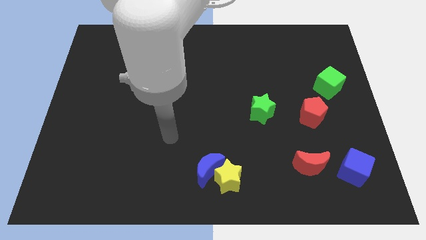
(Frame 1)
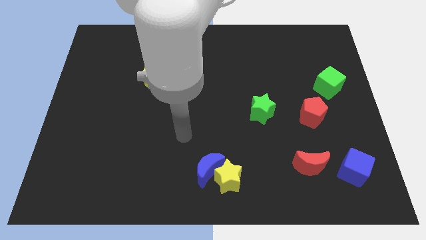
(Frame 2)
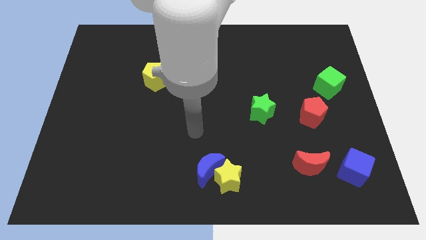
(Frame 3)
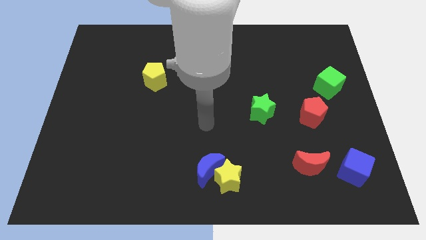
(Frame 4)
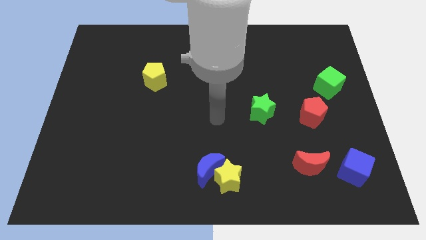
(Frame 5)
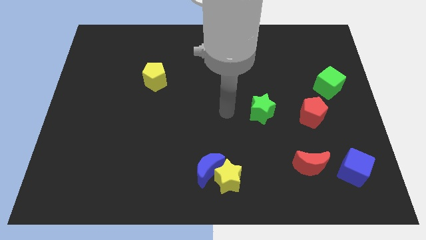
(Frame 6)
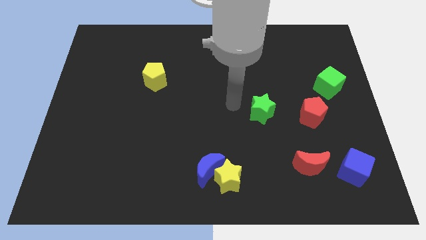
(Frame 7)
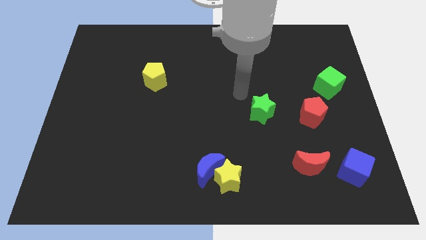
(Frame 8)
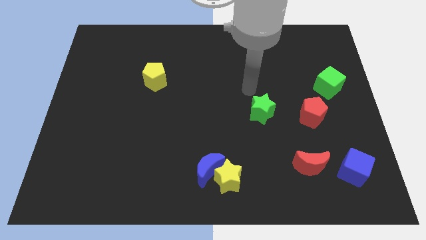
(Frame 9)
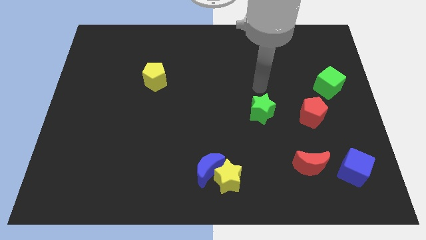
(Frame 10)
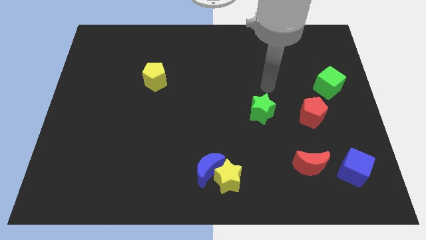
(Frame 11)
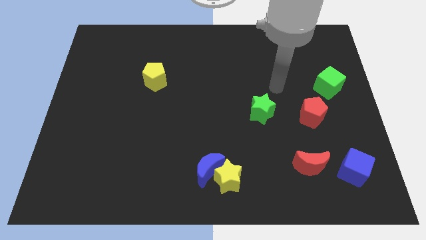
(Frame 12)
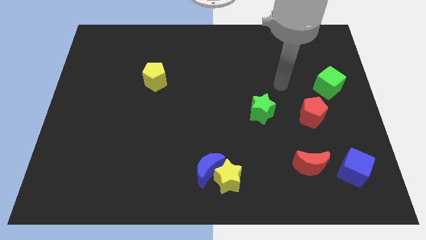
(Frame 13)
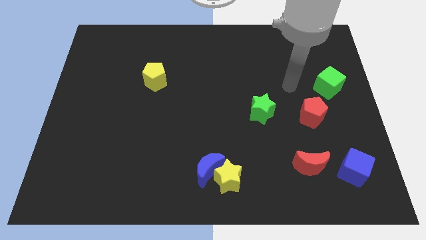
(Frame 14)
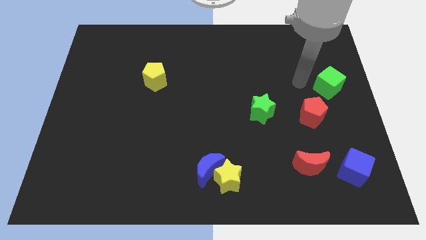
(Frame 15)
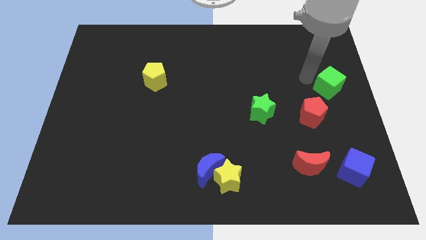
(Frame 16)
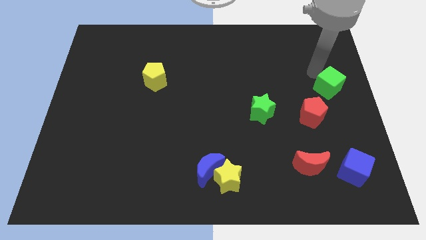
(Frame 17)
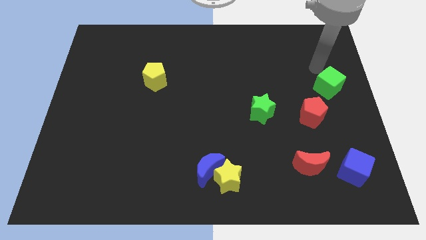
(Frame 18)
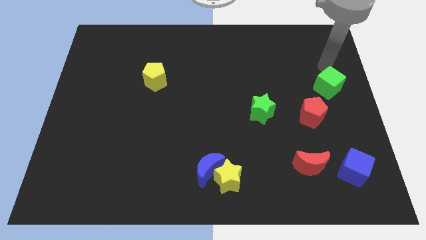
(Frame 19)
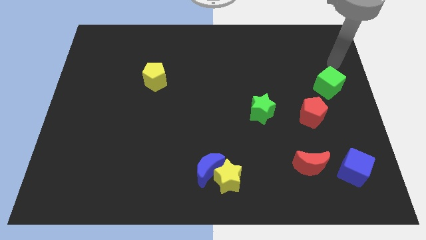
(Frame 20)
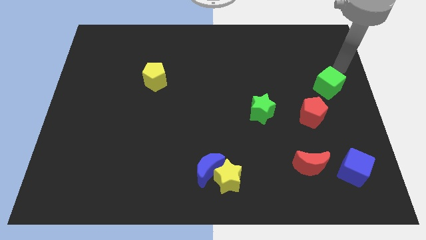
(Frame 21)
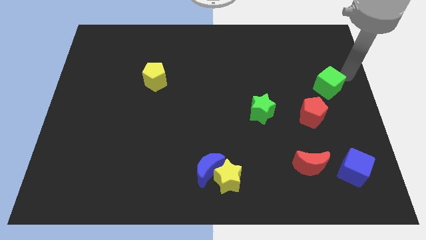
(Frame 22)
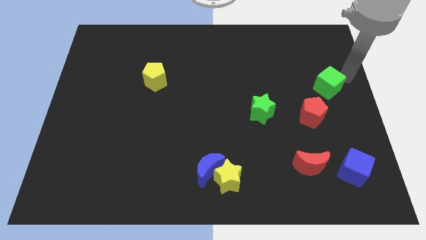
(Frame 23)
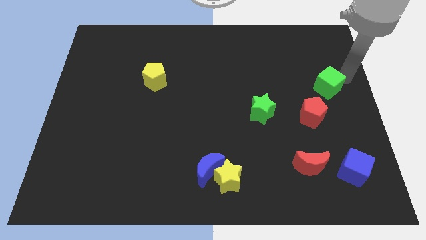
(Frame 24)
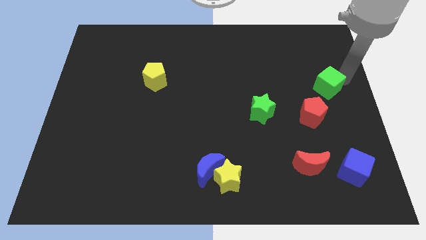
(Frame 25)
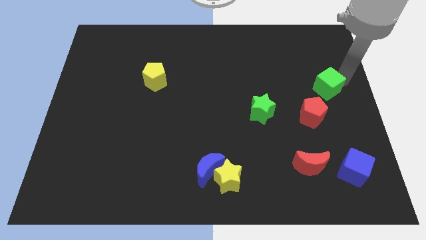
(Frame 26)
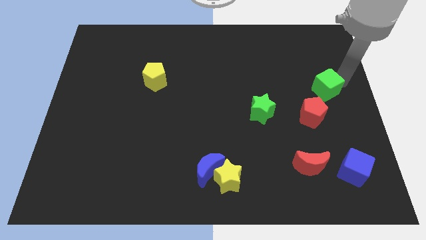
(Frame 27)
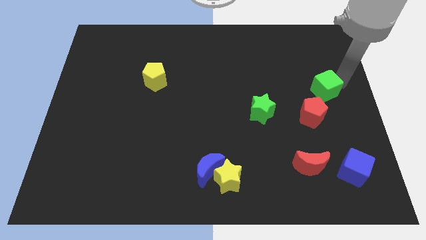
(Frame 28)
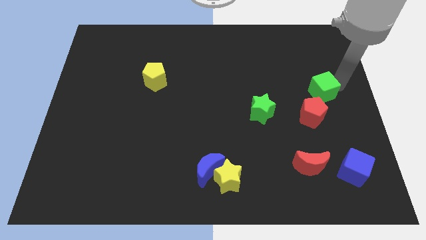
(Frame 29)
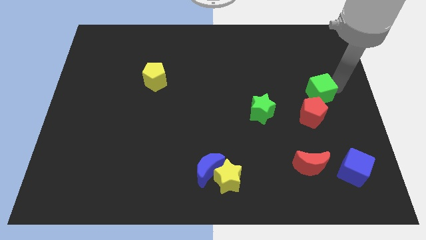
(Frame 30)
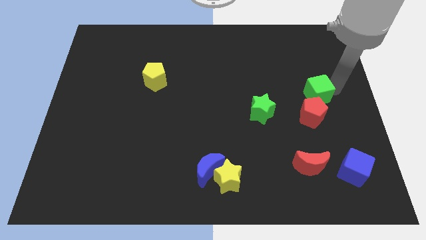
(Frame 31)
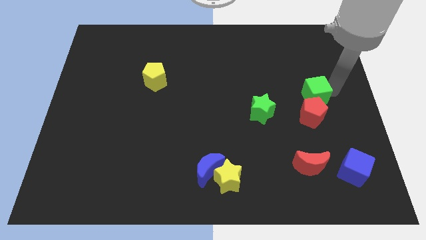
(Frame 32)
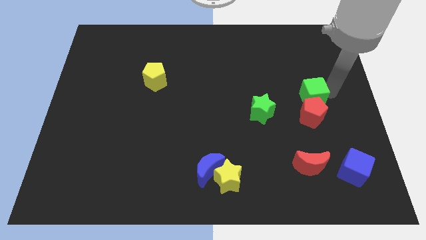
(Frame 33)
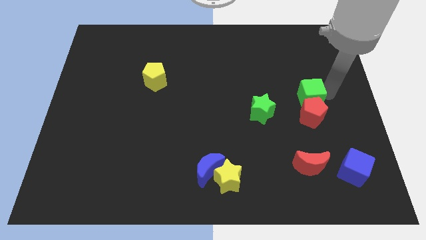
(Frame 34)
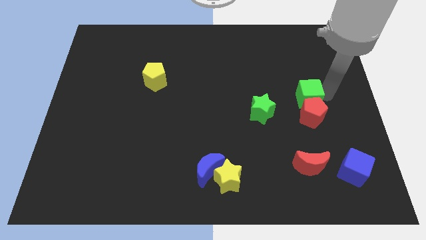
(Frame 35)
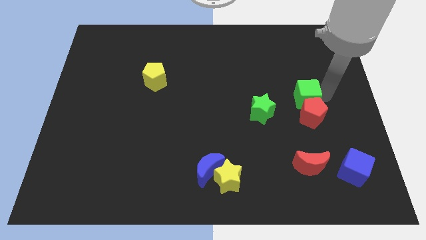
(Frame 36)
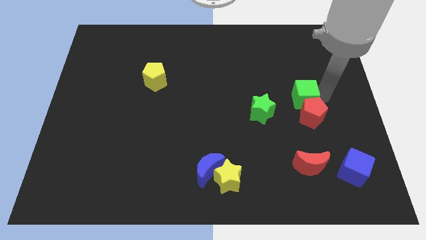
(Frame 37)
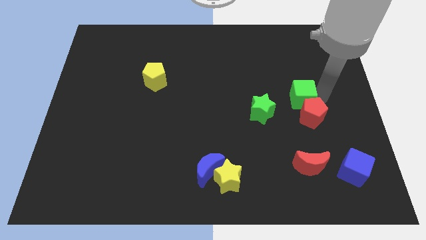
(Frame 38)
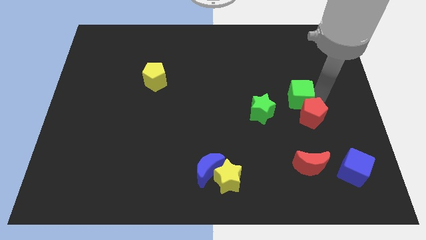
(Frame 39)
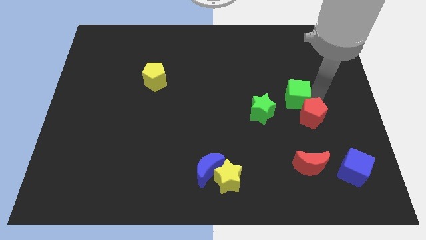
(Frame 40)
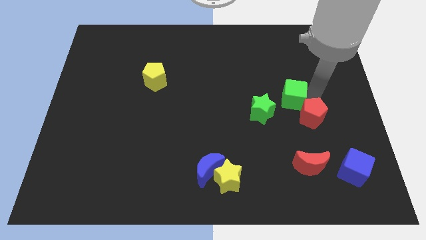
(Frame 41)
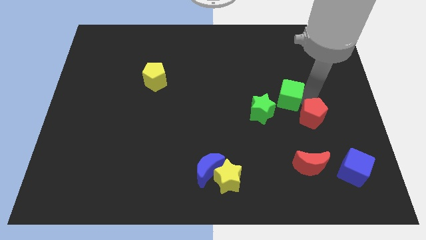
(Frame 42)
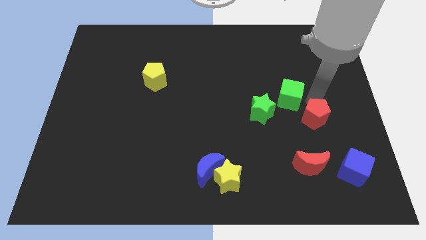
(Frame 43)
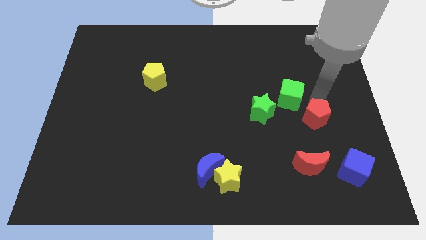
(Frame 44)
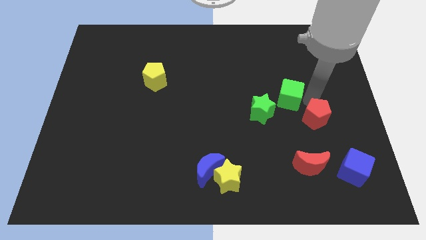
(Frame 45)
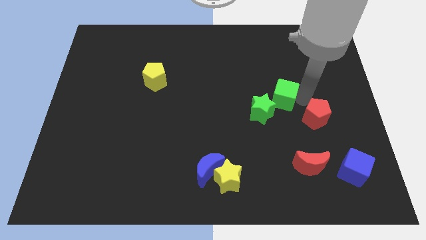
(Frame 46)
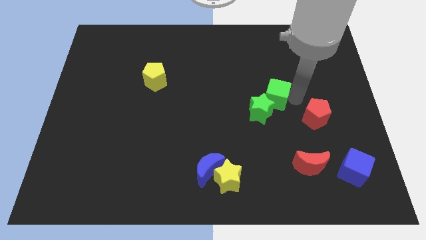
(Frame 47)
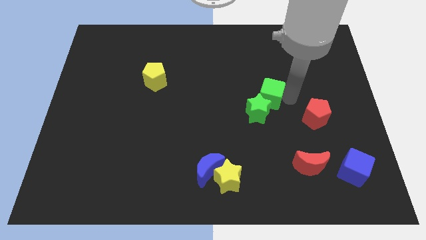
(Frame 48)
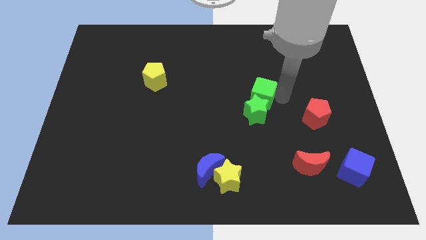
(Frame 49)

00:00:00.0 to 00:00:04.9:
push the green cube to the middle of the board

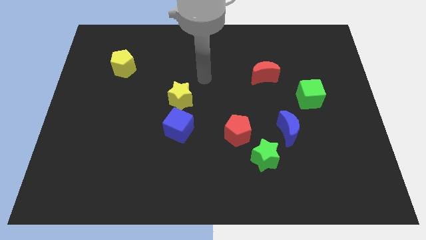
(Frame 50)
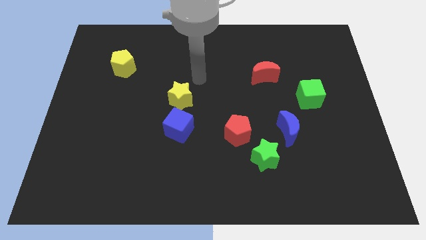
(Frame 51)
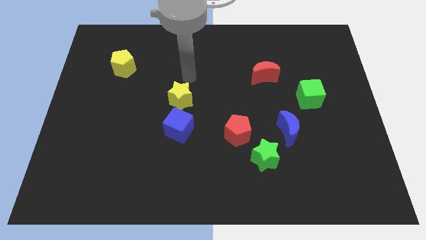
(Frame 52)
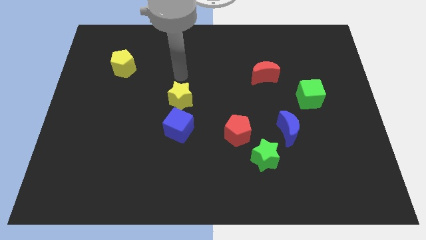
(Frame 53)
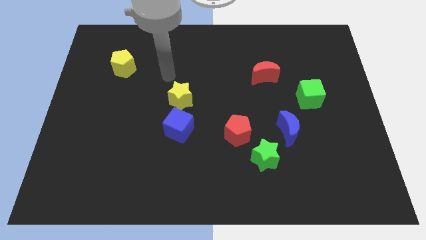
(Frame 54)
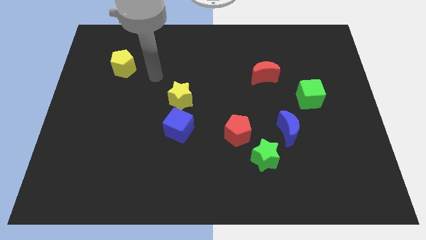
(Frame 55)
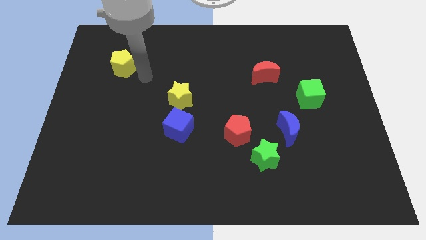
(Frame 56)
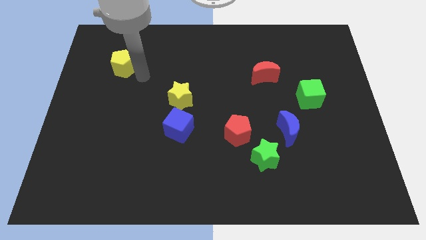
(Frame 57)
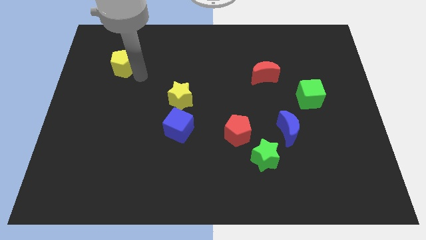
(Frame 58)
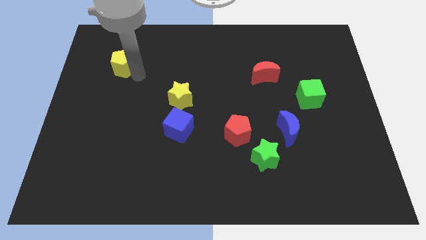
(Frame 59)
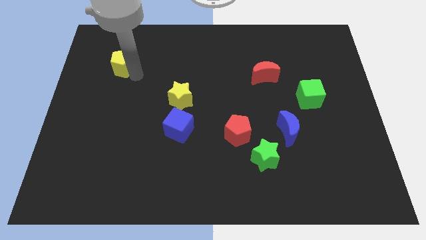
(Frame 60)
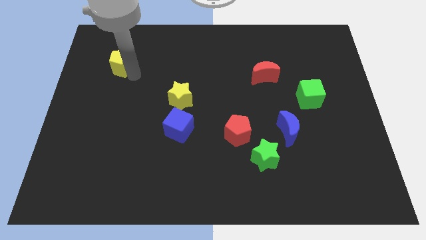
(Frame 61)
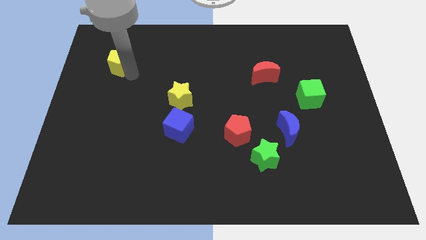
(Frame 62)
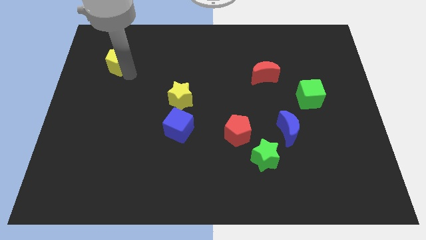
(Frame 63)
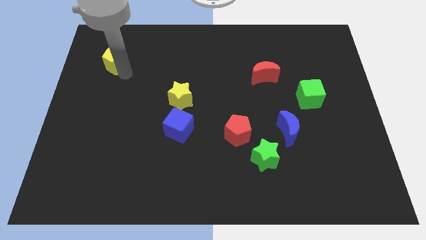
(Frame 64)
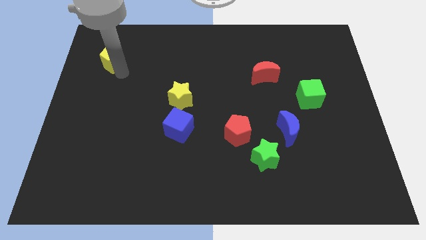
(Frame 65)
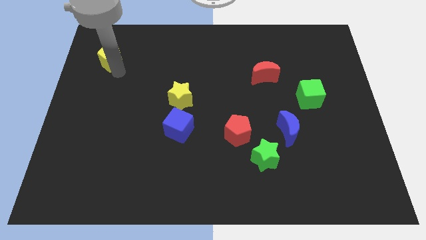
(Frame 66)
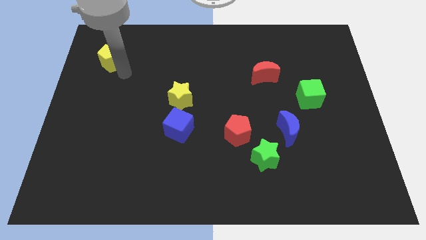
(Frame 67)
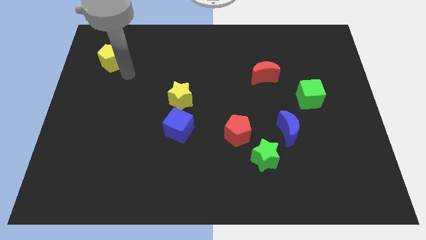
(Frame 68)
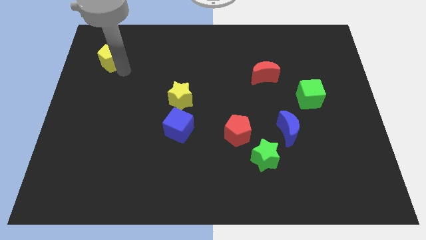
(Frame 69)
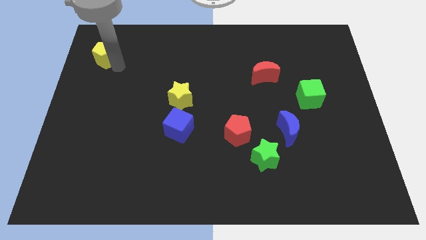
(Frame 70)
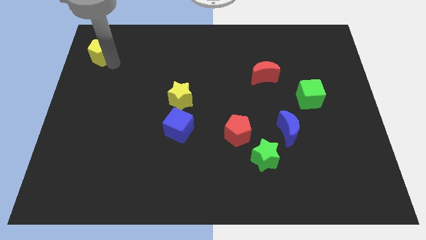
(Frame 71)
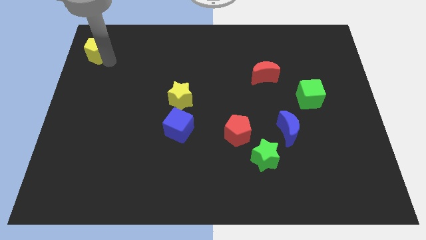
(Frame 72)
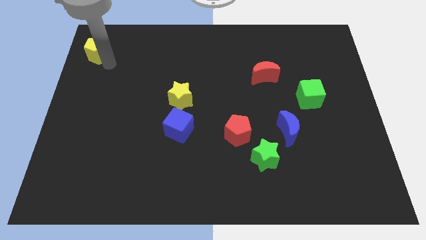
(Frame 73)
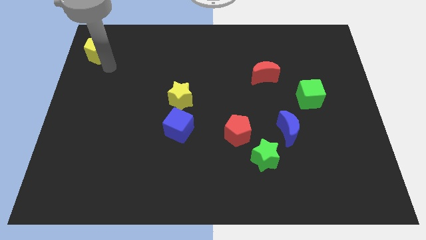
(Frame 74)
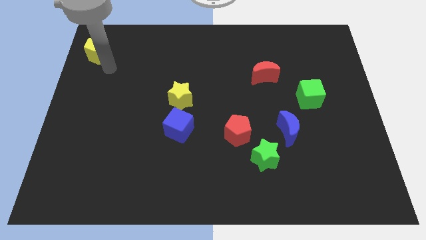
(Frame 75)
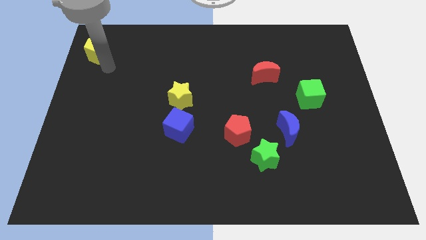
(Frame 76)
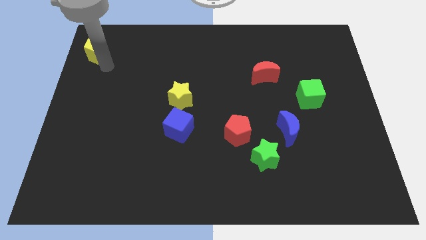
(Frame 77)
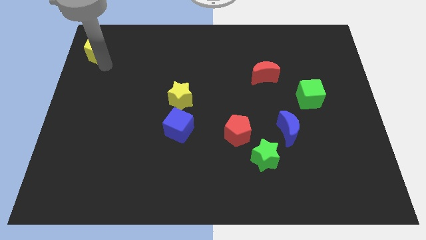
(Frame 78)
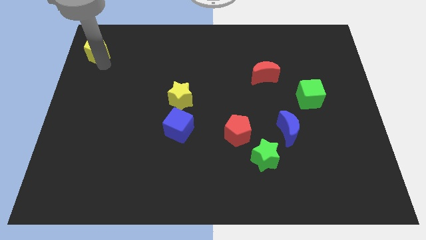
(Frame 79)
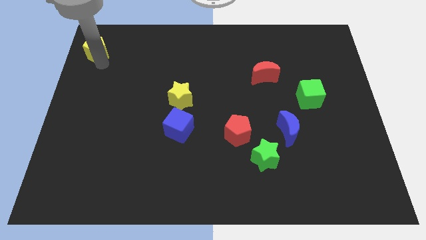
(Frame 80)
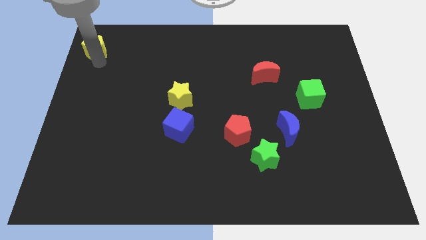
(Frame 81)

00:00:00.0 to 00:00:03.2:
move the yellow pentagon to the upper left corner
